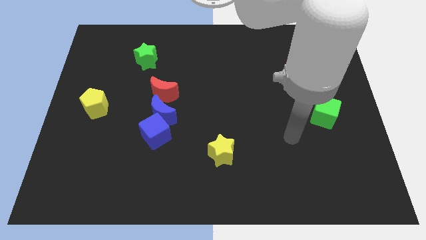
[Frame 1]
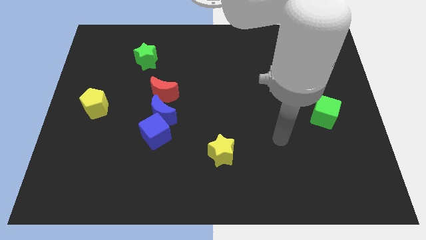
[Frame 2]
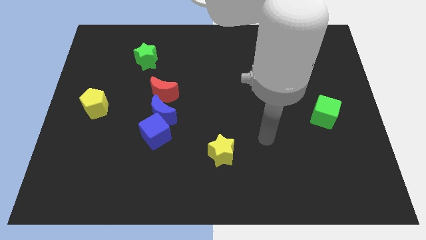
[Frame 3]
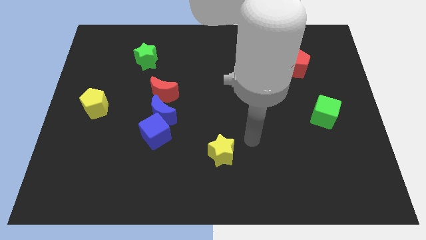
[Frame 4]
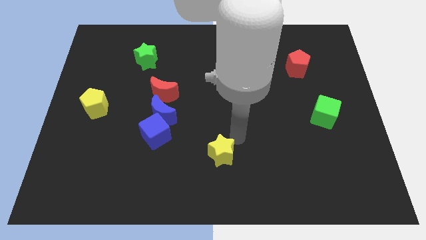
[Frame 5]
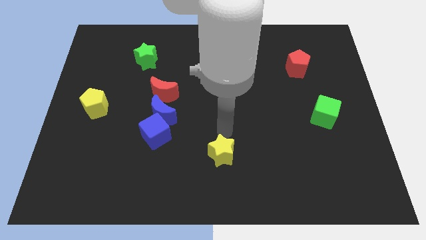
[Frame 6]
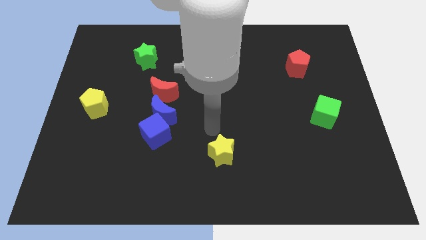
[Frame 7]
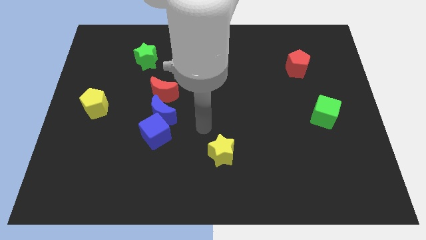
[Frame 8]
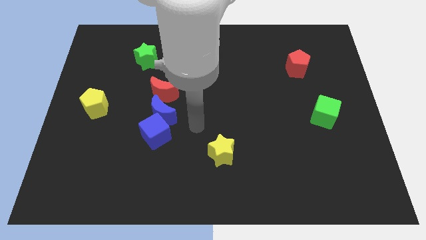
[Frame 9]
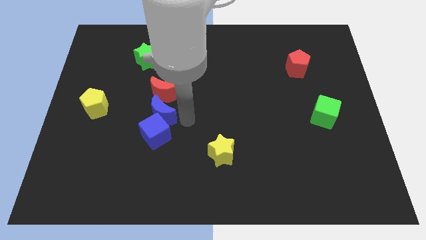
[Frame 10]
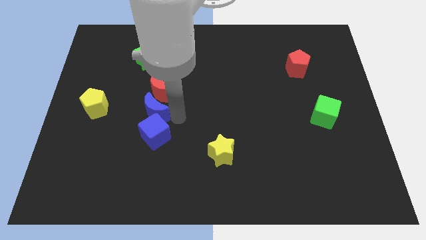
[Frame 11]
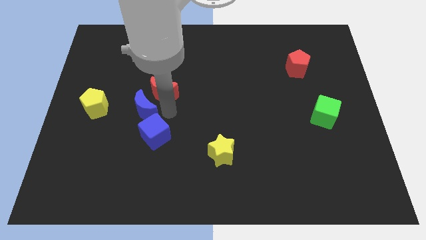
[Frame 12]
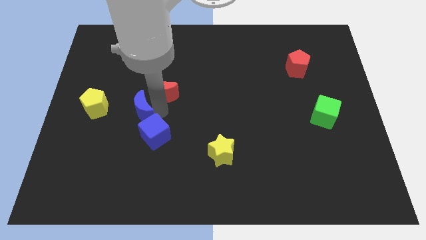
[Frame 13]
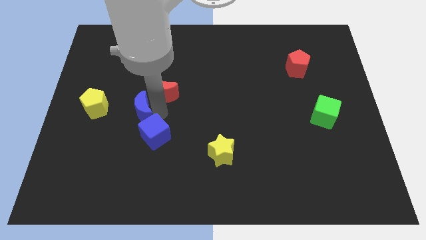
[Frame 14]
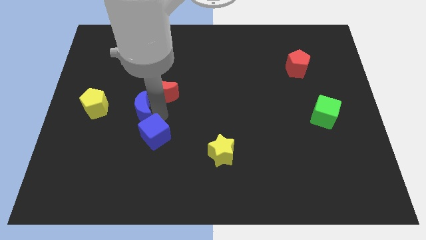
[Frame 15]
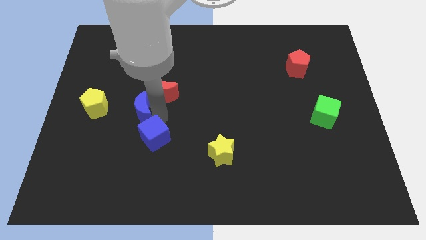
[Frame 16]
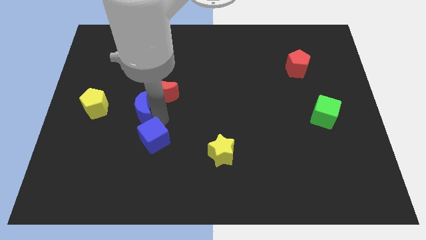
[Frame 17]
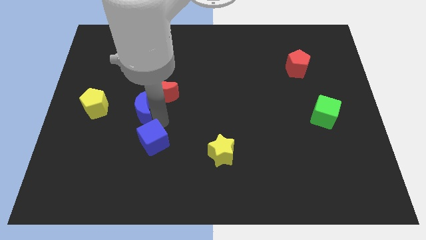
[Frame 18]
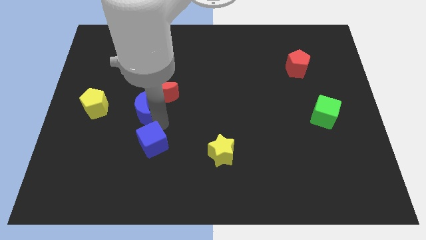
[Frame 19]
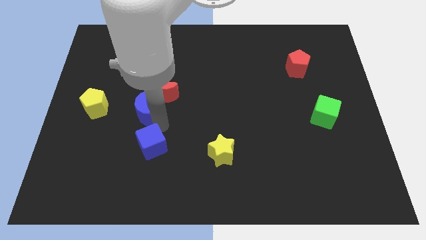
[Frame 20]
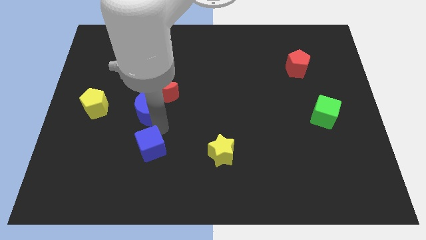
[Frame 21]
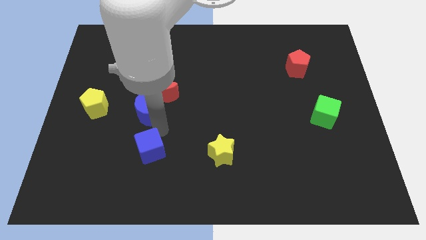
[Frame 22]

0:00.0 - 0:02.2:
move the blue cube away from the blue moon

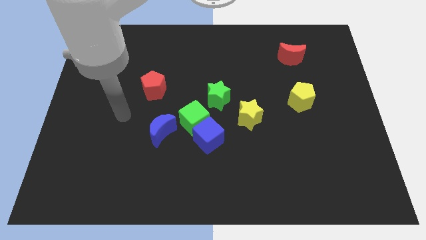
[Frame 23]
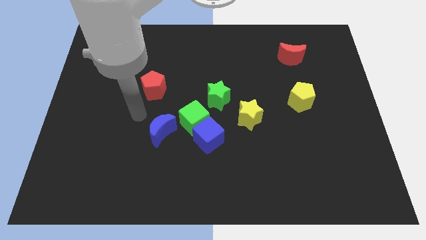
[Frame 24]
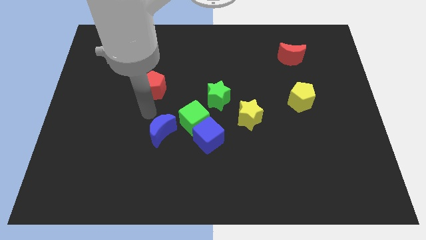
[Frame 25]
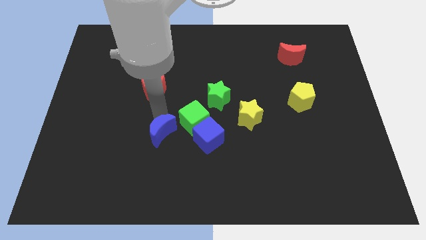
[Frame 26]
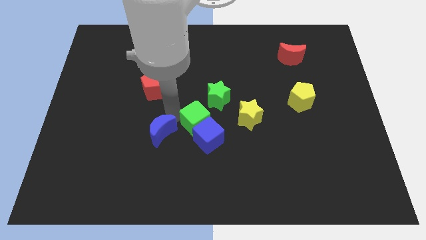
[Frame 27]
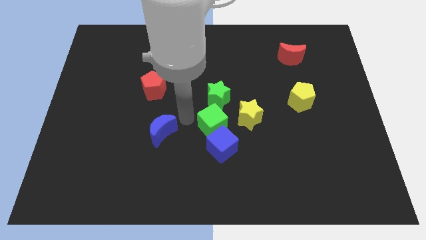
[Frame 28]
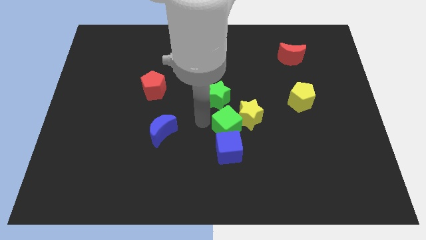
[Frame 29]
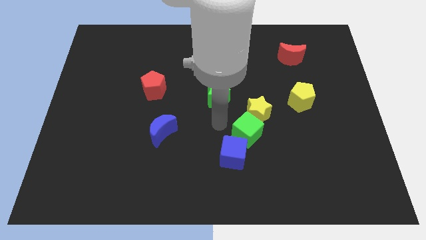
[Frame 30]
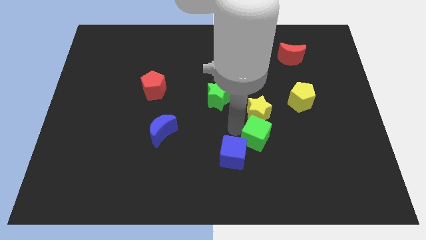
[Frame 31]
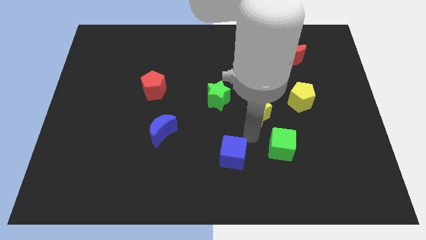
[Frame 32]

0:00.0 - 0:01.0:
separate the blue cube from the green cube

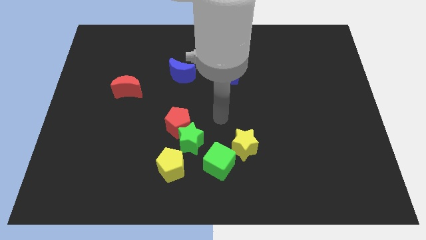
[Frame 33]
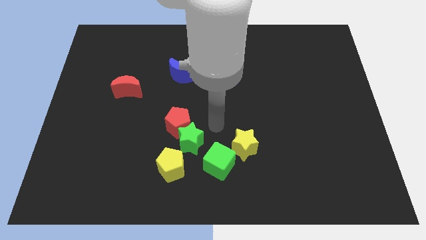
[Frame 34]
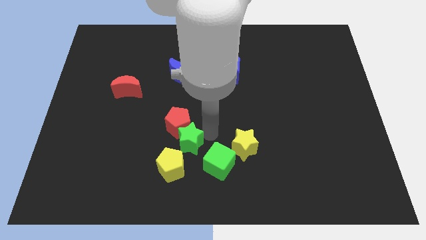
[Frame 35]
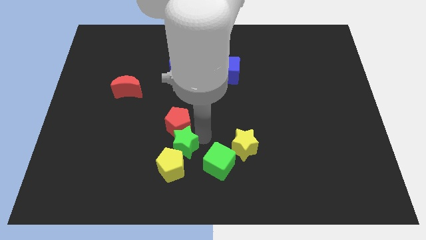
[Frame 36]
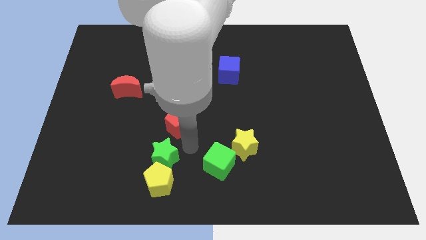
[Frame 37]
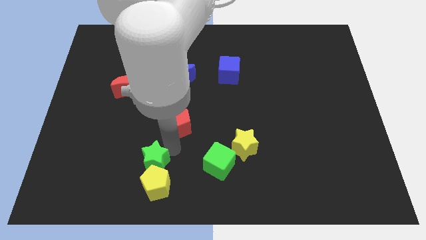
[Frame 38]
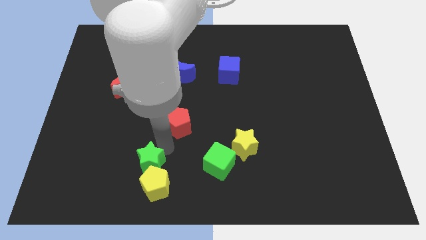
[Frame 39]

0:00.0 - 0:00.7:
move the red pentagon away from the green star

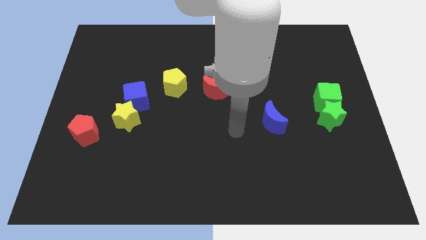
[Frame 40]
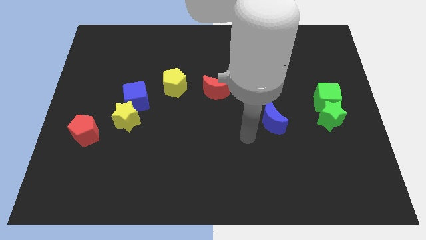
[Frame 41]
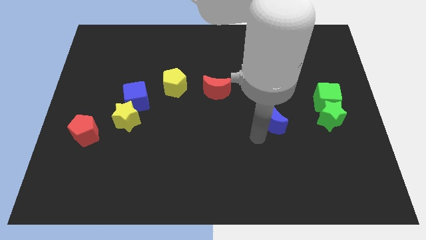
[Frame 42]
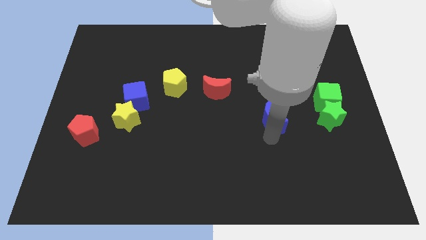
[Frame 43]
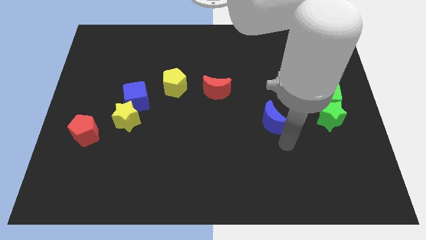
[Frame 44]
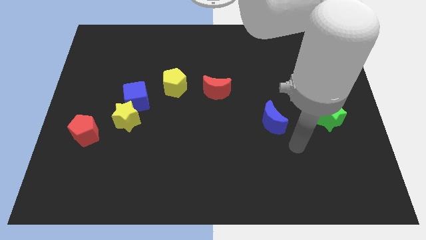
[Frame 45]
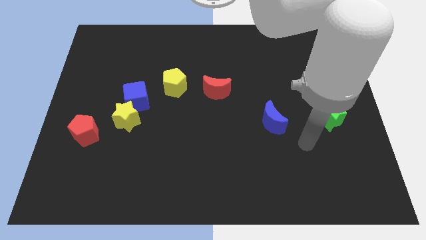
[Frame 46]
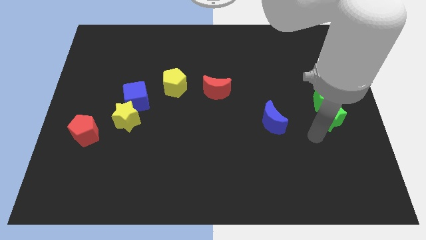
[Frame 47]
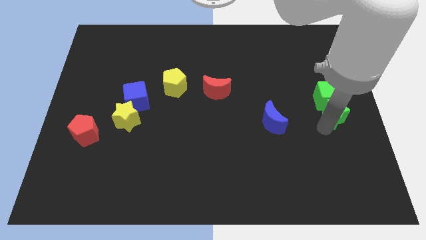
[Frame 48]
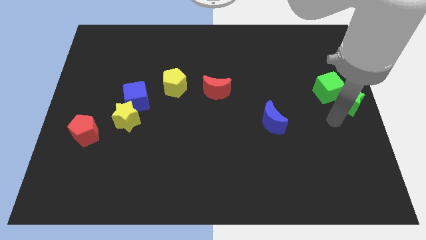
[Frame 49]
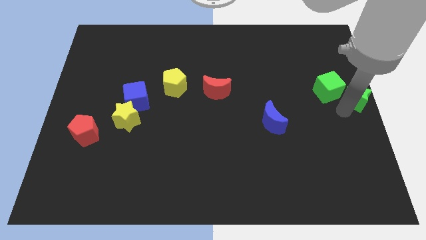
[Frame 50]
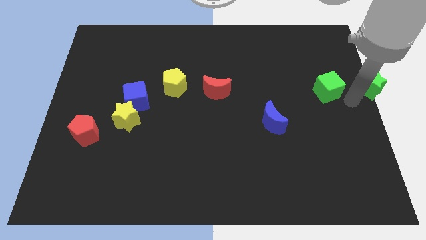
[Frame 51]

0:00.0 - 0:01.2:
separate the green cube from the green star

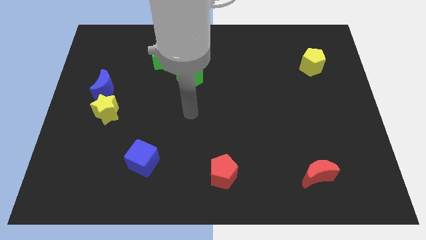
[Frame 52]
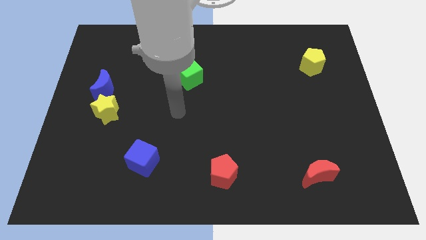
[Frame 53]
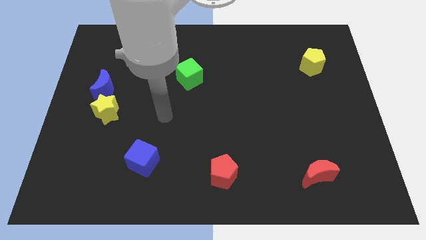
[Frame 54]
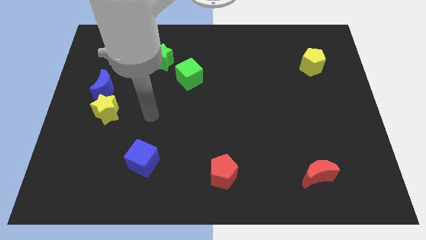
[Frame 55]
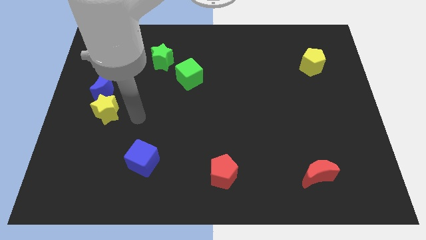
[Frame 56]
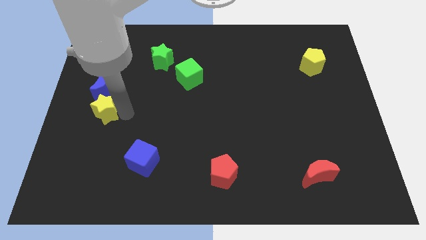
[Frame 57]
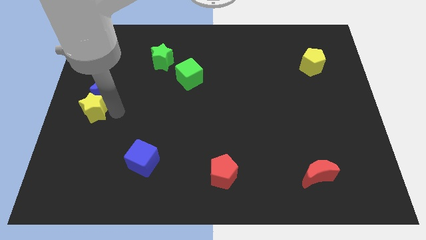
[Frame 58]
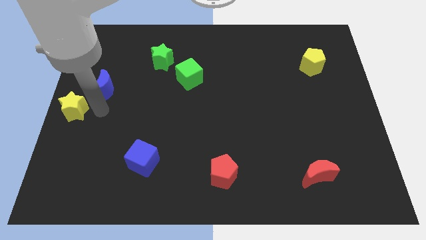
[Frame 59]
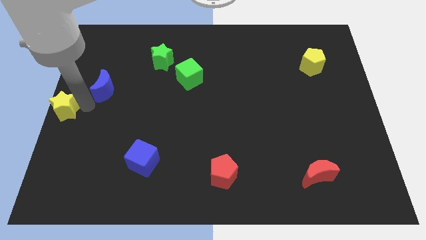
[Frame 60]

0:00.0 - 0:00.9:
separate the blue moon from the yellow star

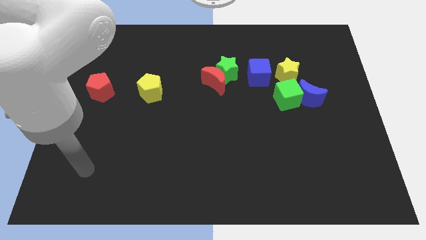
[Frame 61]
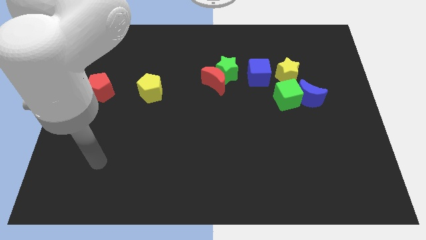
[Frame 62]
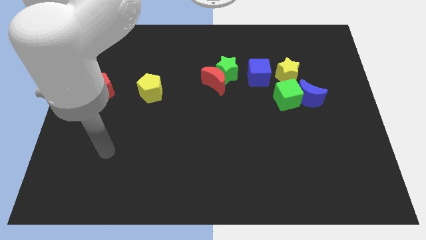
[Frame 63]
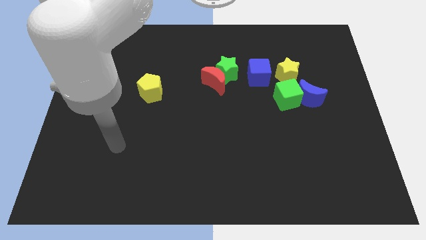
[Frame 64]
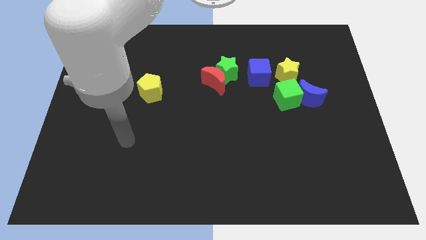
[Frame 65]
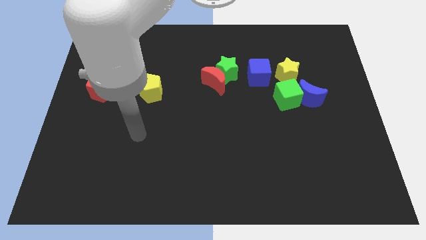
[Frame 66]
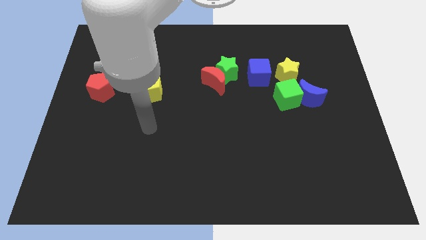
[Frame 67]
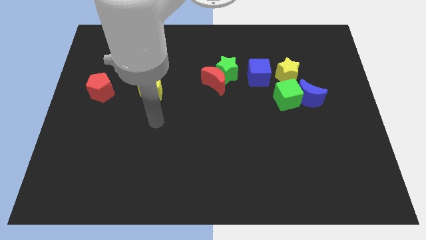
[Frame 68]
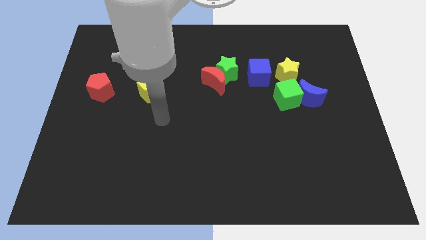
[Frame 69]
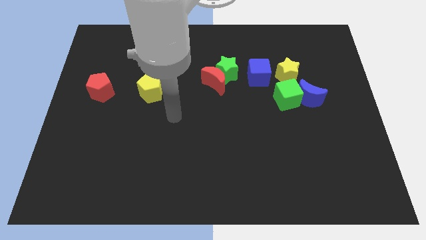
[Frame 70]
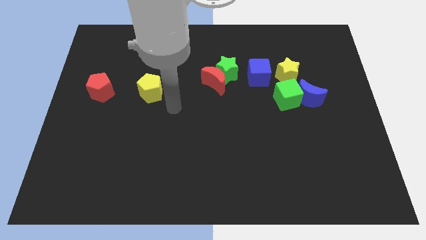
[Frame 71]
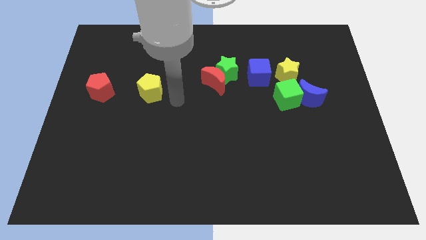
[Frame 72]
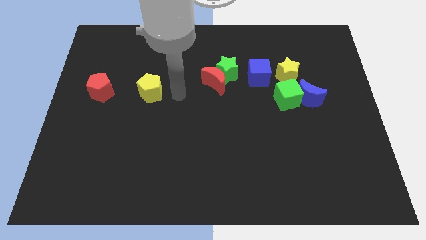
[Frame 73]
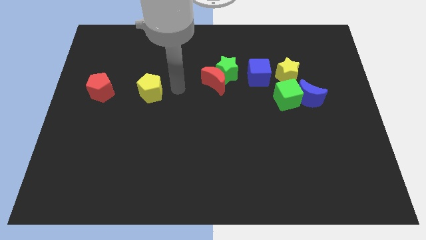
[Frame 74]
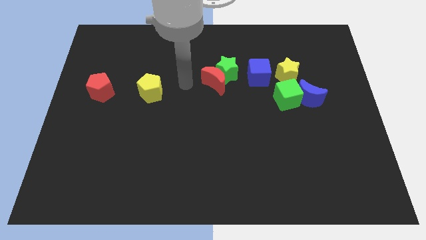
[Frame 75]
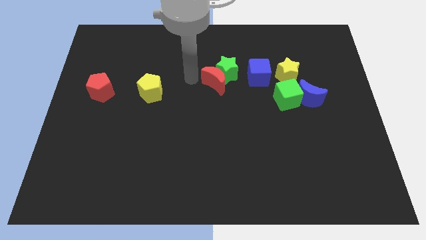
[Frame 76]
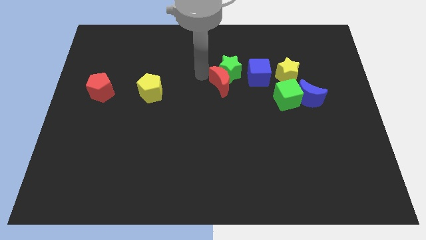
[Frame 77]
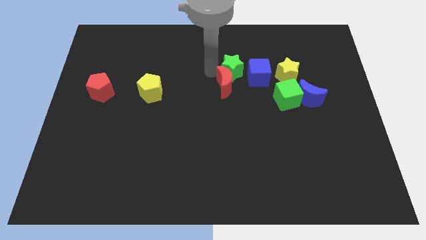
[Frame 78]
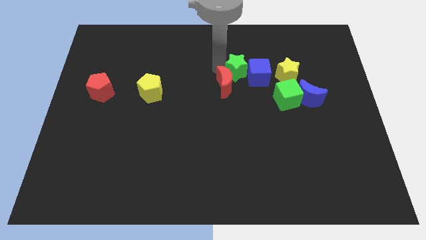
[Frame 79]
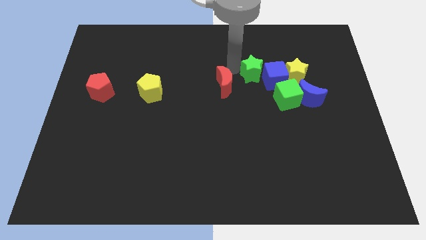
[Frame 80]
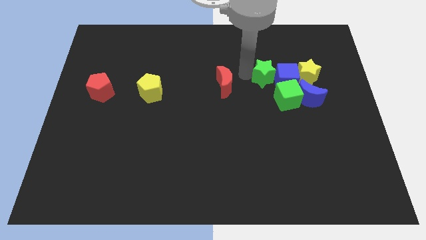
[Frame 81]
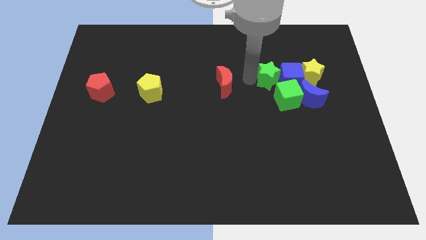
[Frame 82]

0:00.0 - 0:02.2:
separate the red moon from the green star

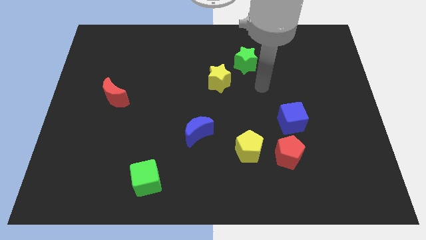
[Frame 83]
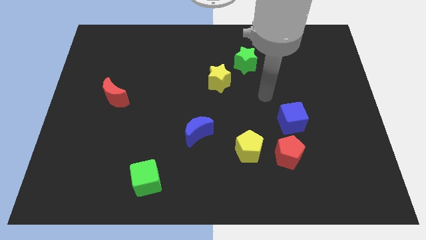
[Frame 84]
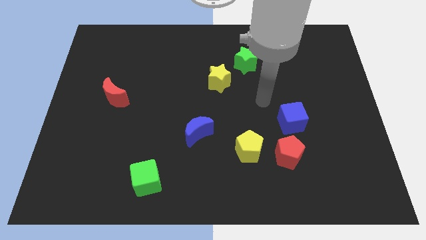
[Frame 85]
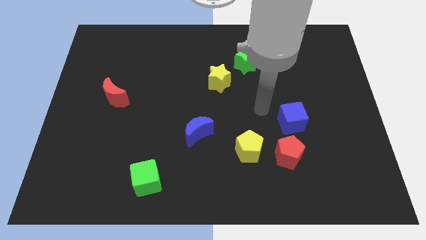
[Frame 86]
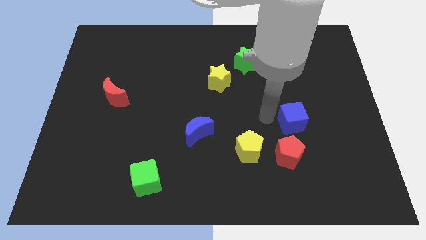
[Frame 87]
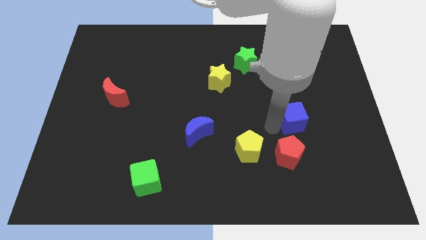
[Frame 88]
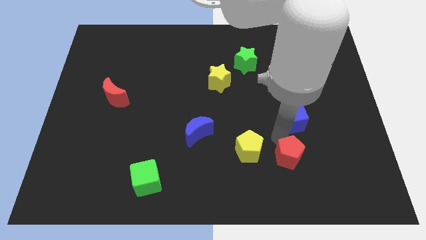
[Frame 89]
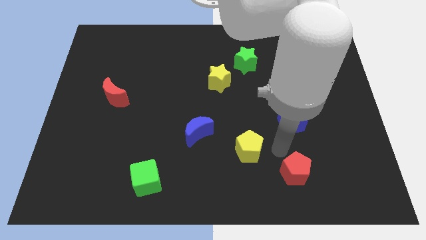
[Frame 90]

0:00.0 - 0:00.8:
separate the yellow pentagon from the red pentagon

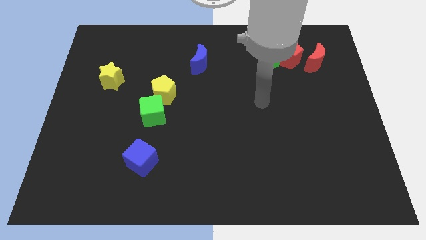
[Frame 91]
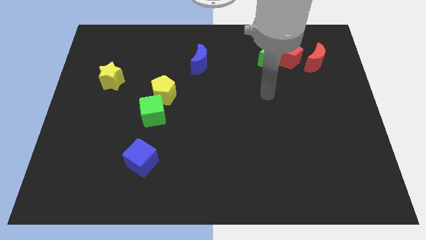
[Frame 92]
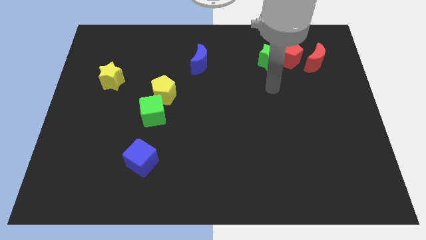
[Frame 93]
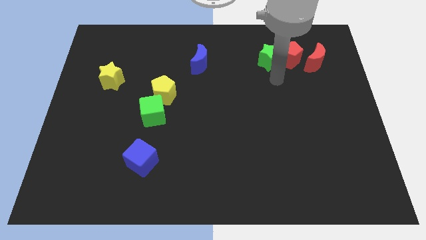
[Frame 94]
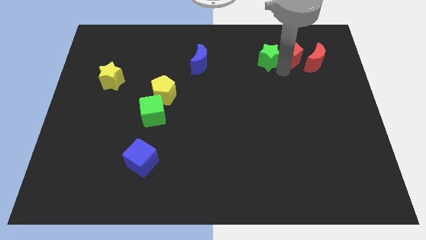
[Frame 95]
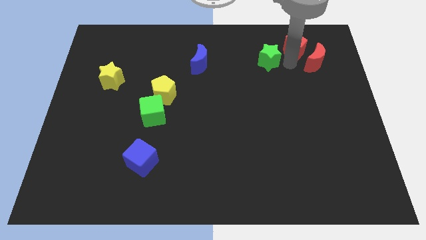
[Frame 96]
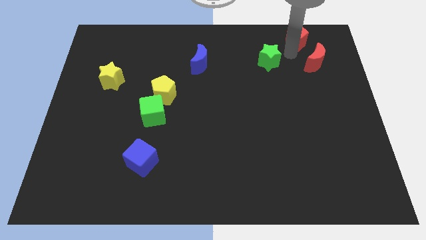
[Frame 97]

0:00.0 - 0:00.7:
separate the green star from the red pentagon
